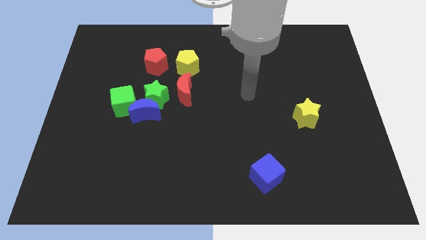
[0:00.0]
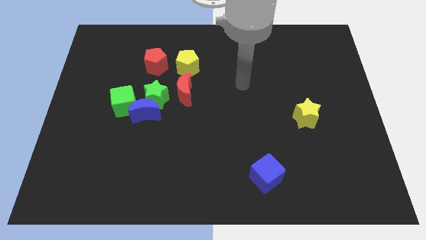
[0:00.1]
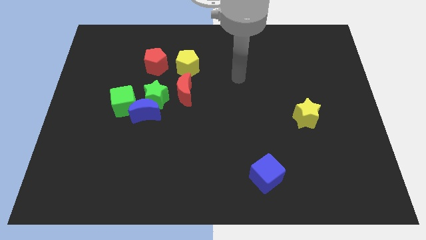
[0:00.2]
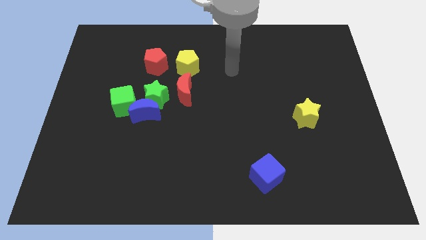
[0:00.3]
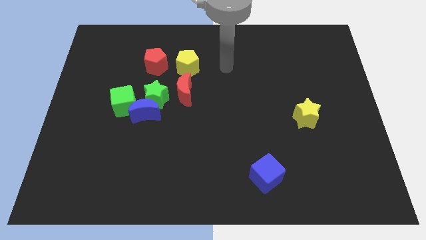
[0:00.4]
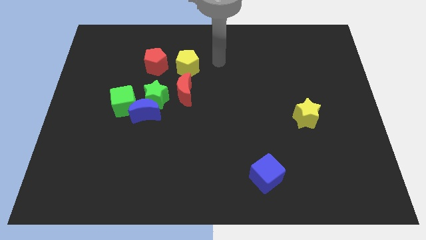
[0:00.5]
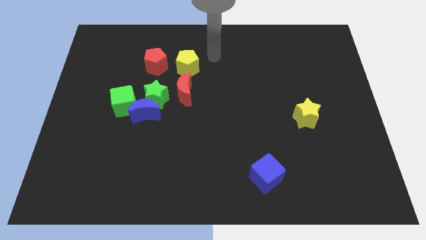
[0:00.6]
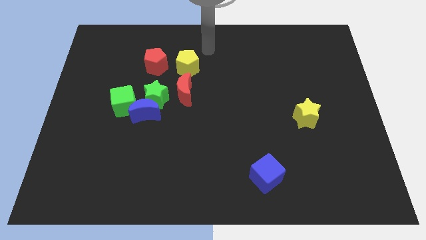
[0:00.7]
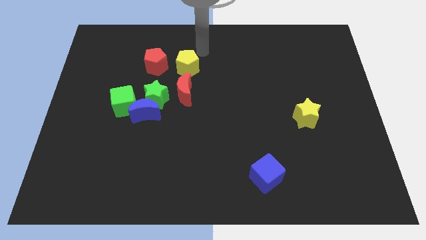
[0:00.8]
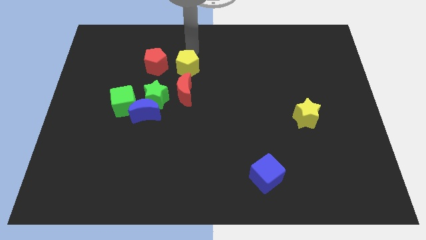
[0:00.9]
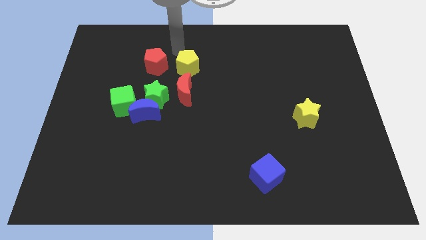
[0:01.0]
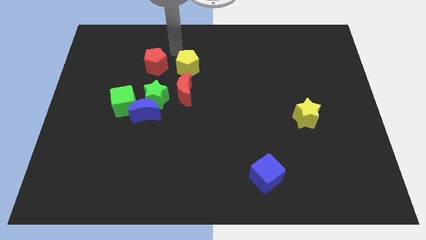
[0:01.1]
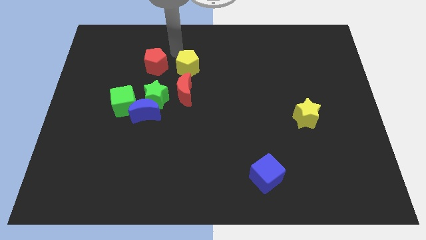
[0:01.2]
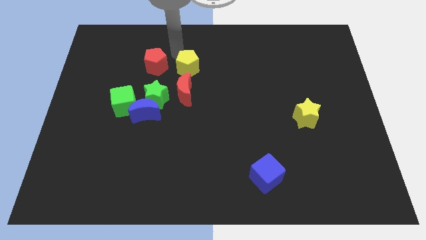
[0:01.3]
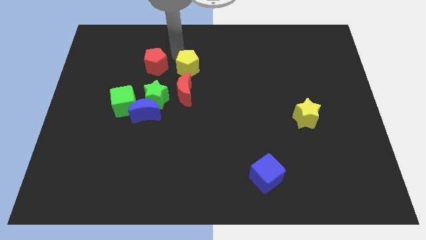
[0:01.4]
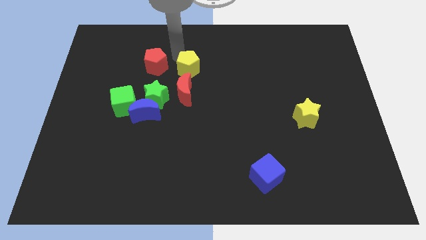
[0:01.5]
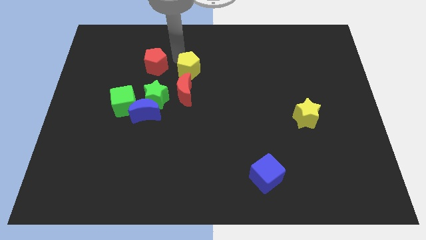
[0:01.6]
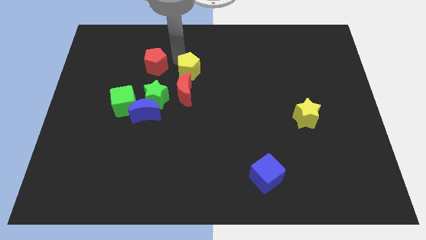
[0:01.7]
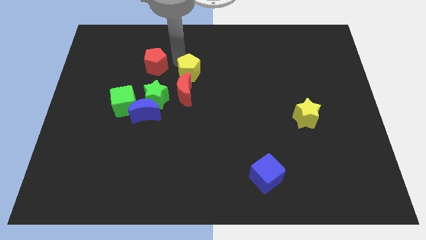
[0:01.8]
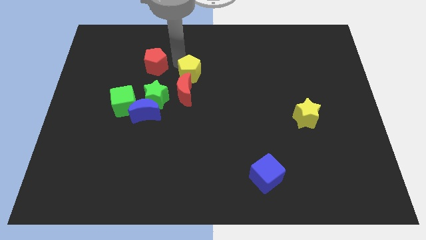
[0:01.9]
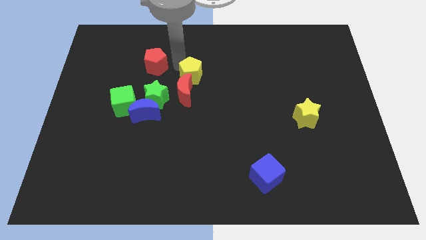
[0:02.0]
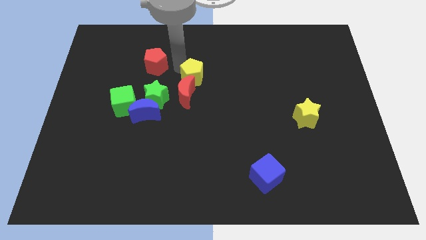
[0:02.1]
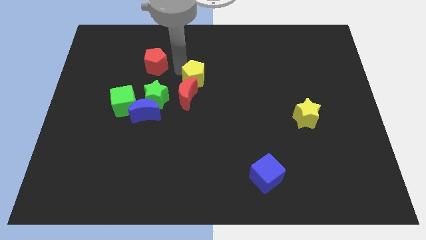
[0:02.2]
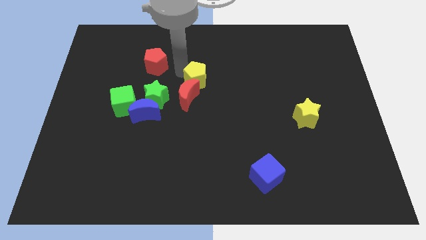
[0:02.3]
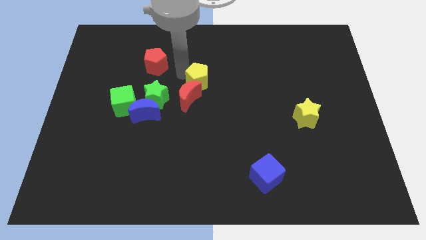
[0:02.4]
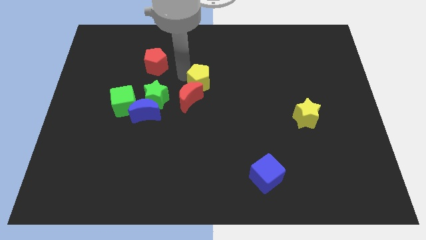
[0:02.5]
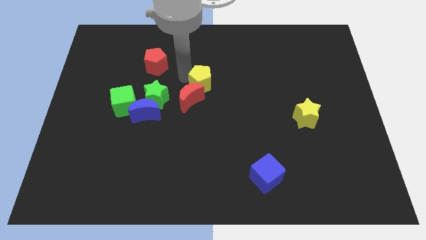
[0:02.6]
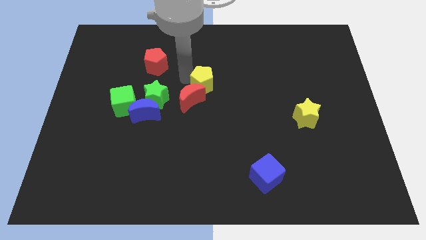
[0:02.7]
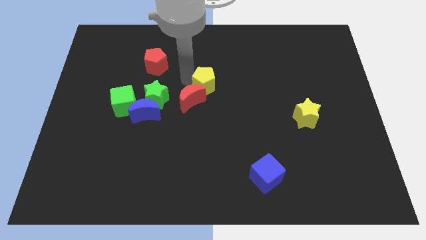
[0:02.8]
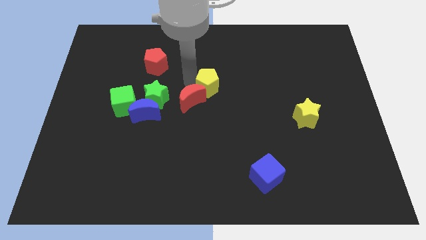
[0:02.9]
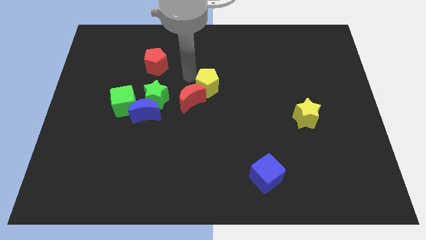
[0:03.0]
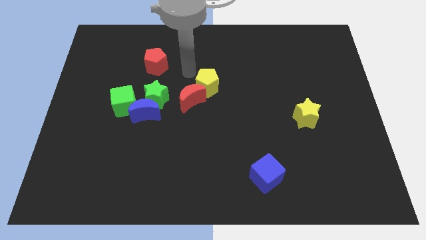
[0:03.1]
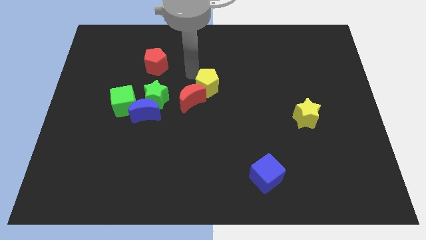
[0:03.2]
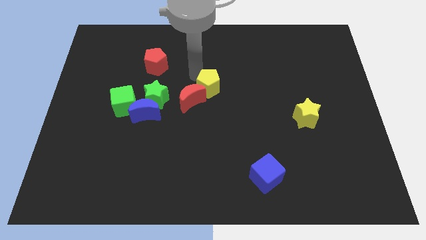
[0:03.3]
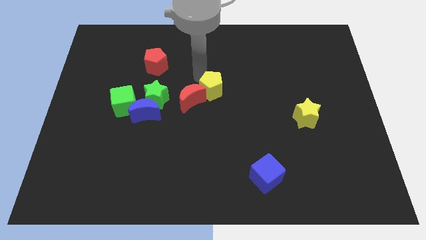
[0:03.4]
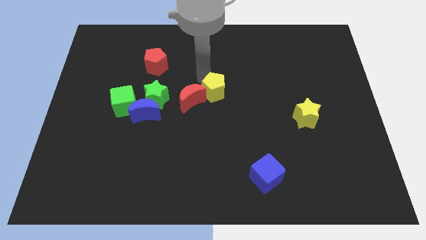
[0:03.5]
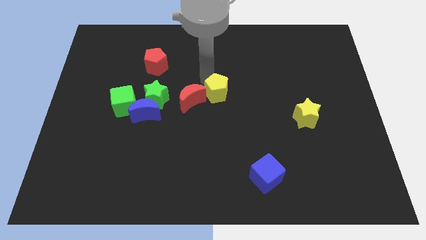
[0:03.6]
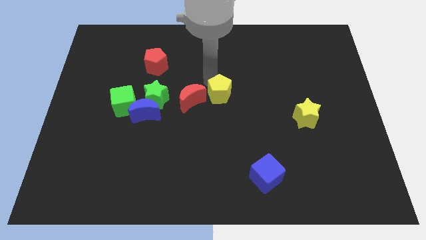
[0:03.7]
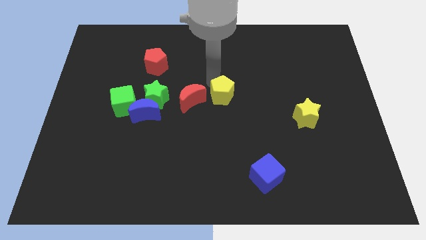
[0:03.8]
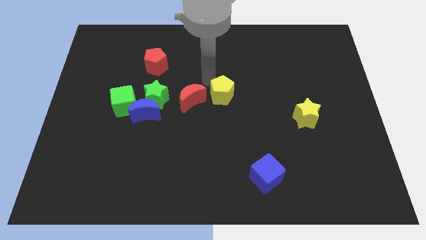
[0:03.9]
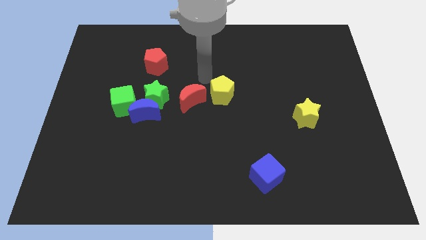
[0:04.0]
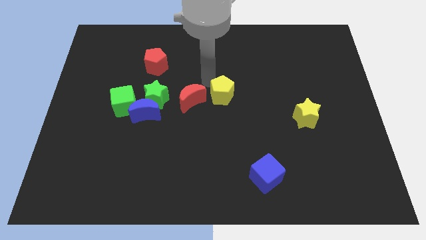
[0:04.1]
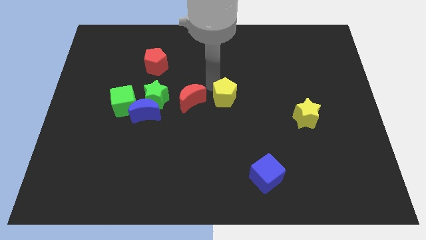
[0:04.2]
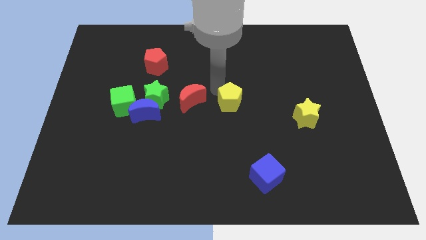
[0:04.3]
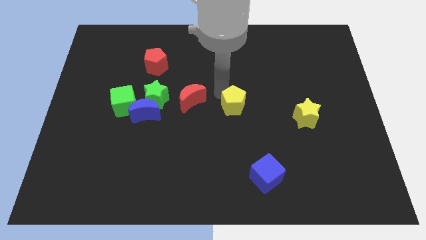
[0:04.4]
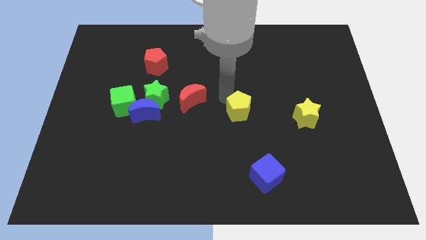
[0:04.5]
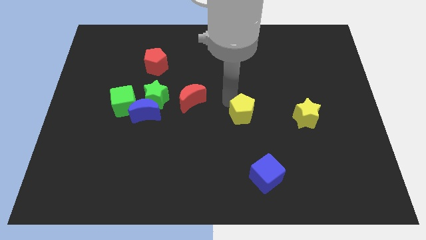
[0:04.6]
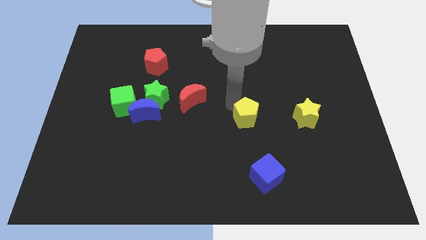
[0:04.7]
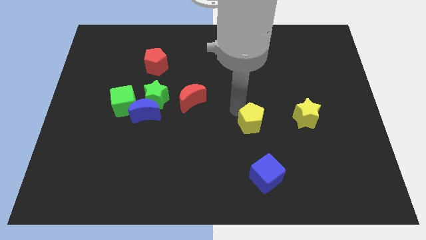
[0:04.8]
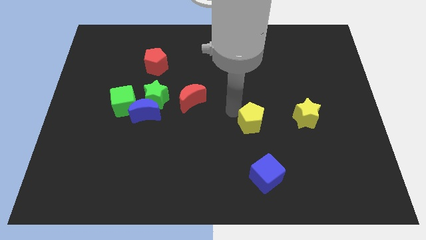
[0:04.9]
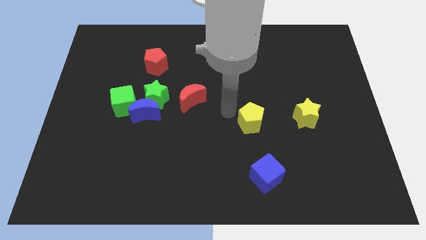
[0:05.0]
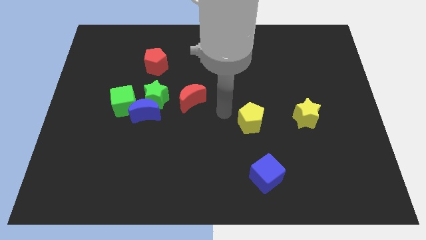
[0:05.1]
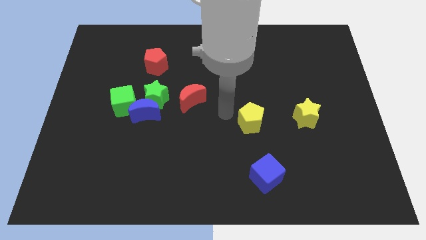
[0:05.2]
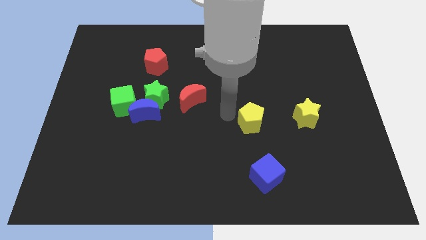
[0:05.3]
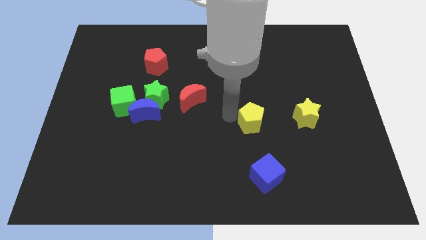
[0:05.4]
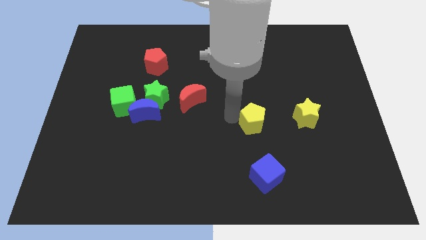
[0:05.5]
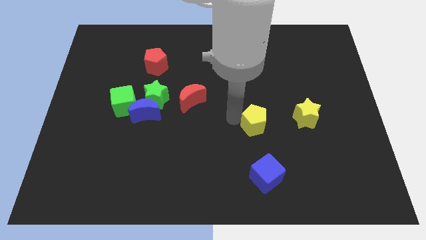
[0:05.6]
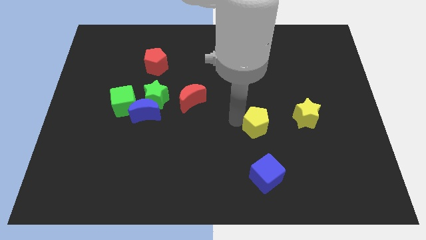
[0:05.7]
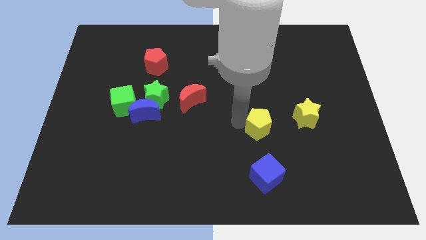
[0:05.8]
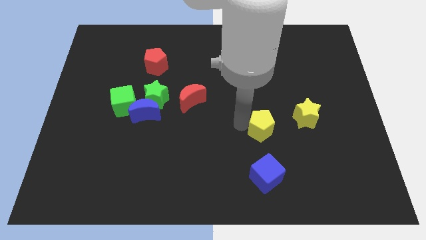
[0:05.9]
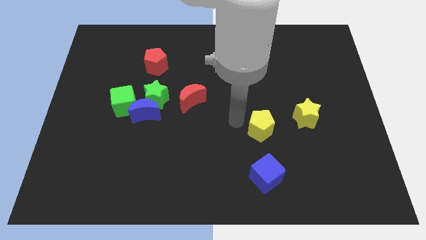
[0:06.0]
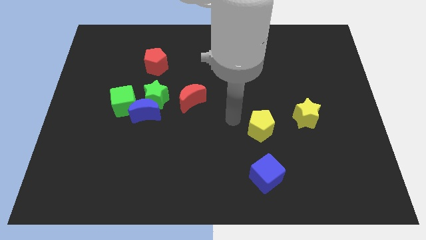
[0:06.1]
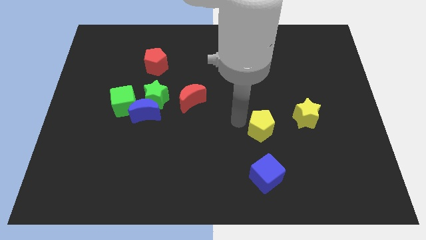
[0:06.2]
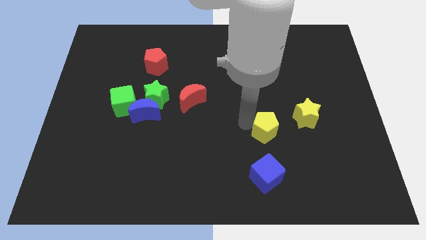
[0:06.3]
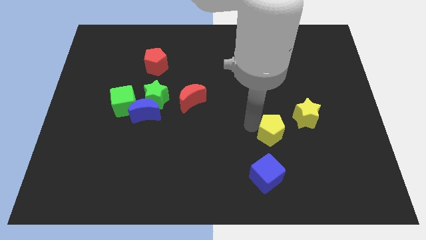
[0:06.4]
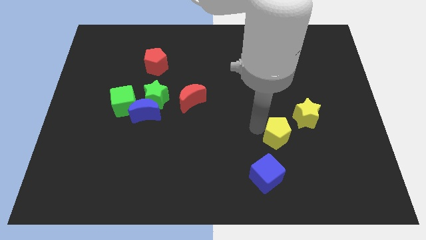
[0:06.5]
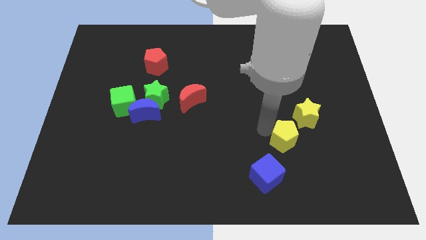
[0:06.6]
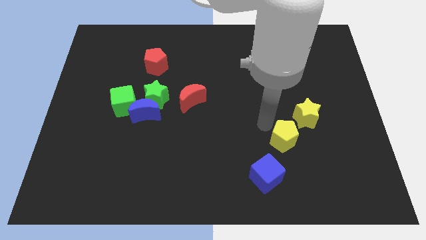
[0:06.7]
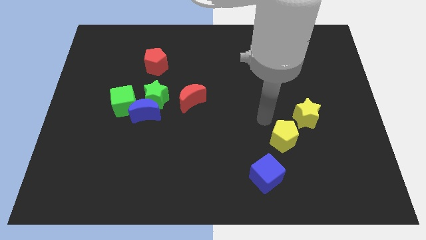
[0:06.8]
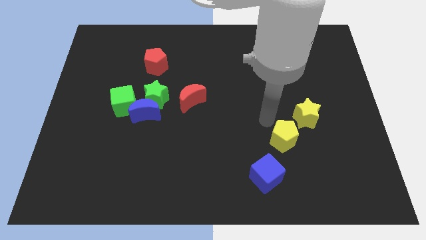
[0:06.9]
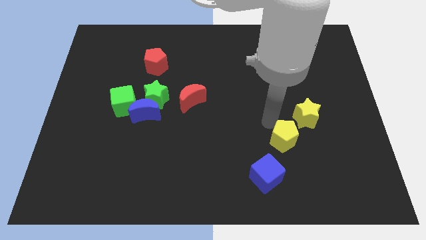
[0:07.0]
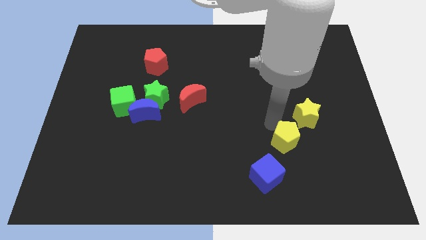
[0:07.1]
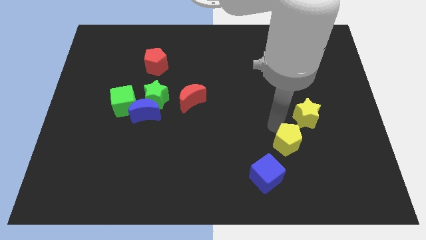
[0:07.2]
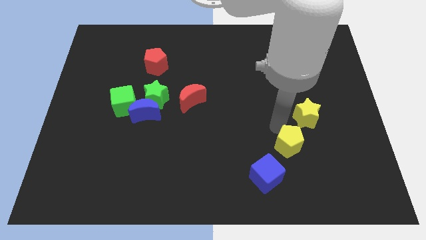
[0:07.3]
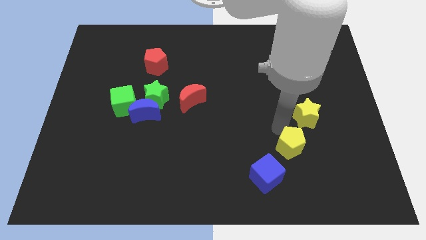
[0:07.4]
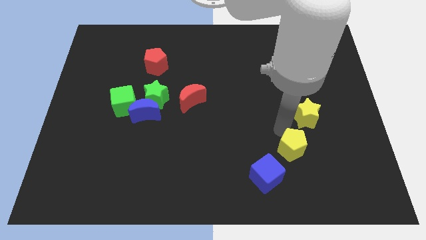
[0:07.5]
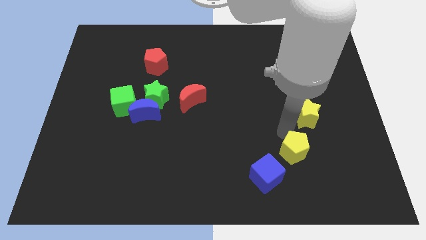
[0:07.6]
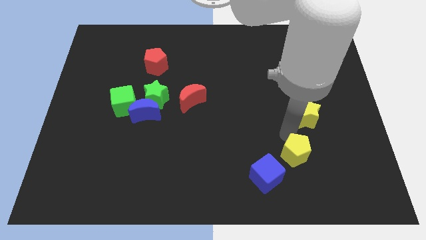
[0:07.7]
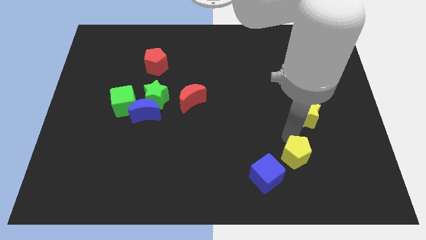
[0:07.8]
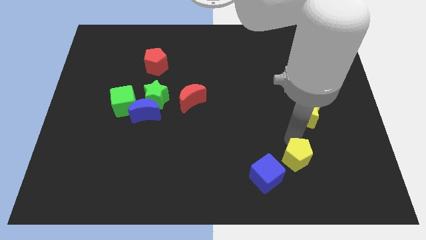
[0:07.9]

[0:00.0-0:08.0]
move the yellow pentagon just right of the blue cube

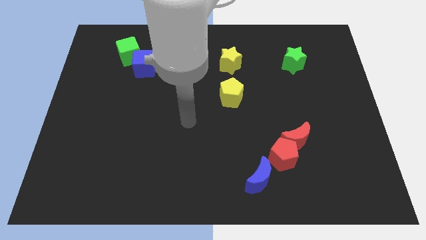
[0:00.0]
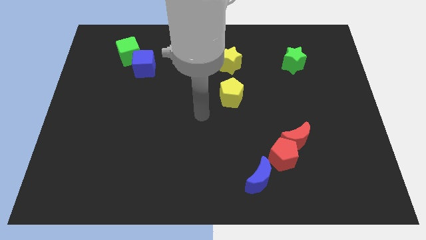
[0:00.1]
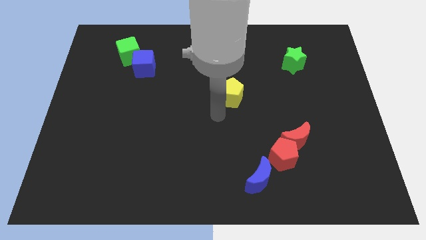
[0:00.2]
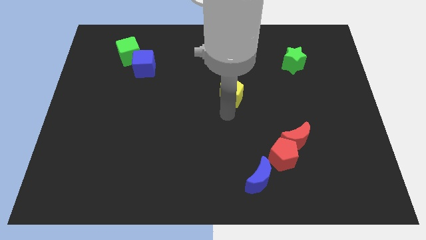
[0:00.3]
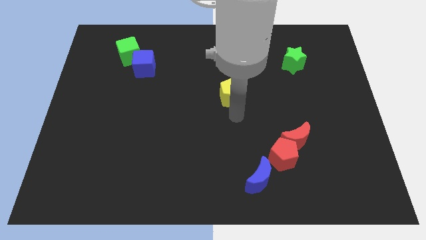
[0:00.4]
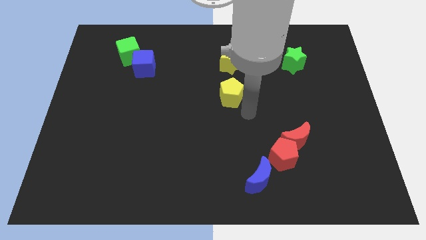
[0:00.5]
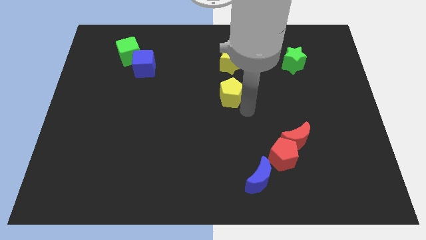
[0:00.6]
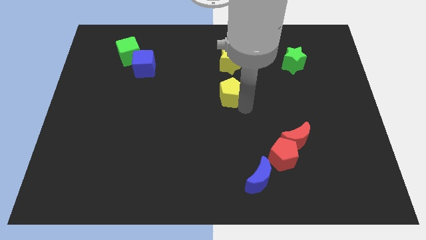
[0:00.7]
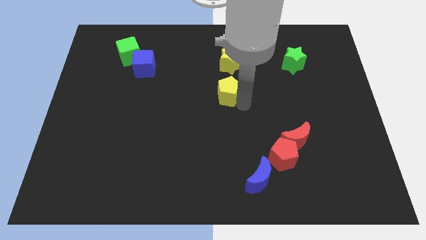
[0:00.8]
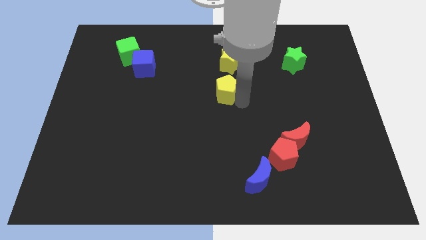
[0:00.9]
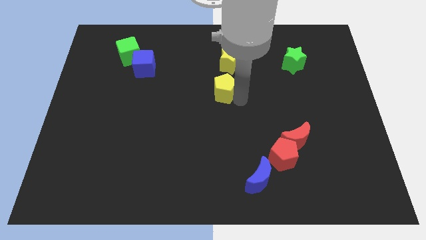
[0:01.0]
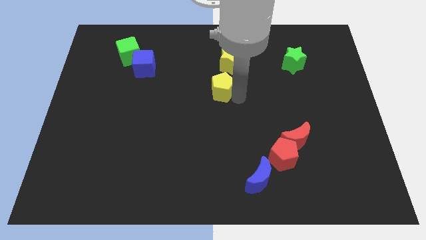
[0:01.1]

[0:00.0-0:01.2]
move the yellow pentagon diagonally down and to the left of the yellow star
